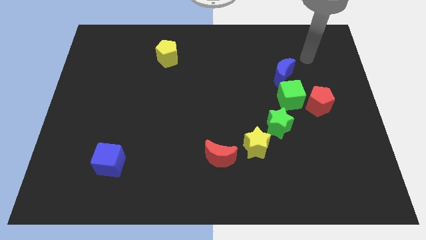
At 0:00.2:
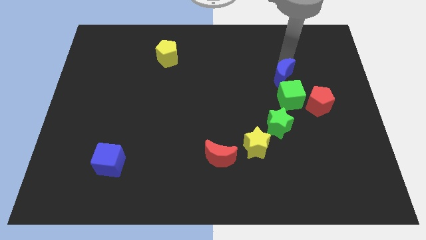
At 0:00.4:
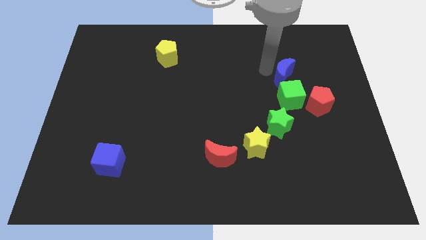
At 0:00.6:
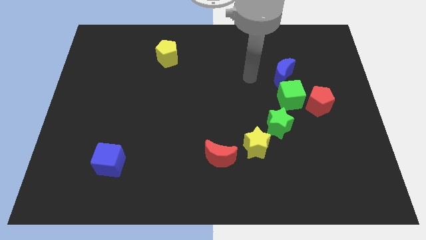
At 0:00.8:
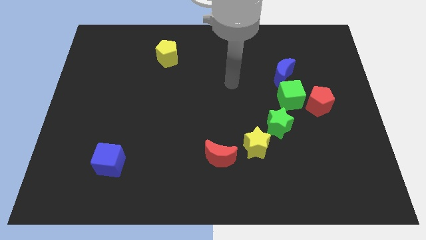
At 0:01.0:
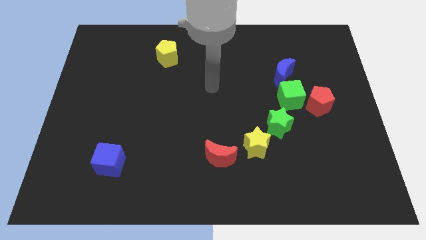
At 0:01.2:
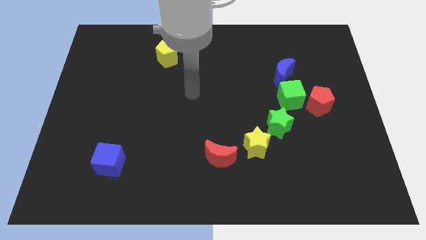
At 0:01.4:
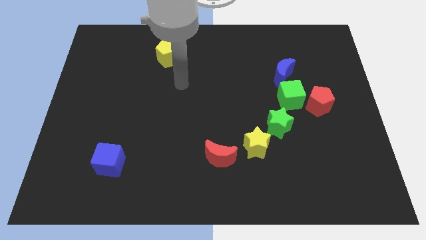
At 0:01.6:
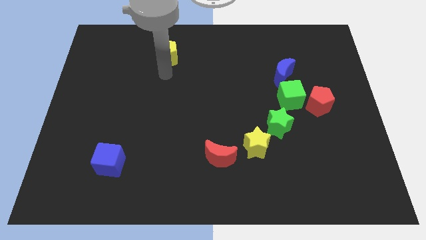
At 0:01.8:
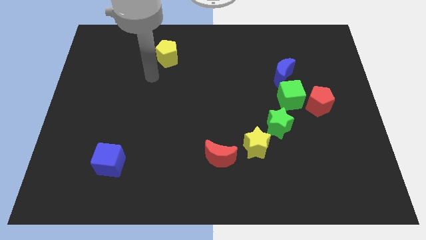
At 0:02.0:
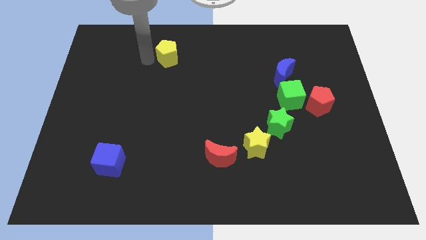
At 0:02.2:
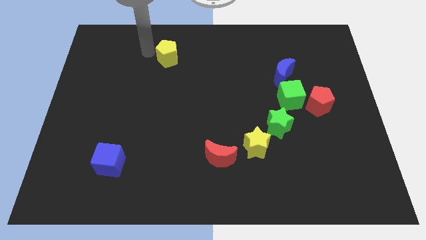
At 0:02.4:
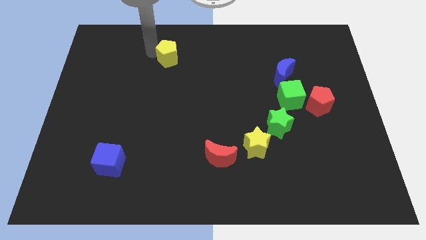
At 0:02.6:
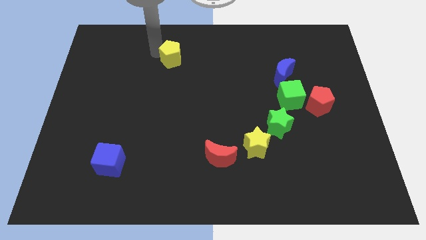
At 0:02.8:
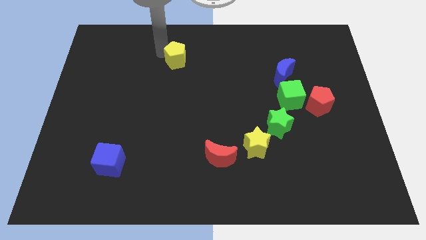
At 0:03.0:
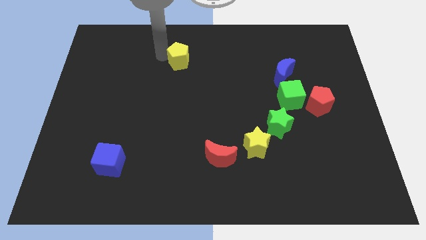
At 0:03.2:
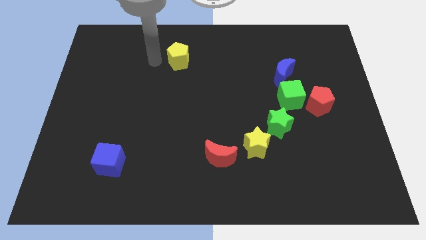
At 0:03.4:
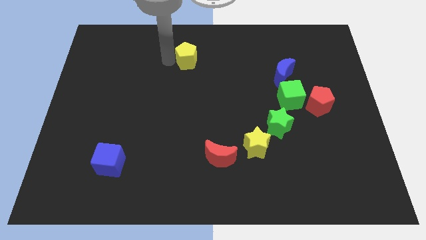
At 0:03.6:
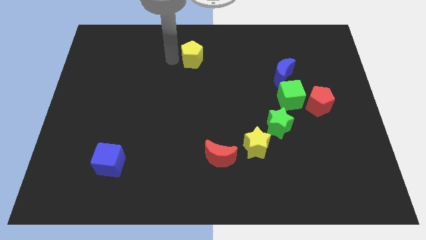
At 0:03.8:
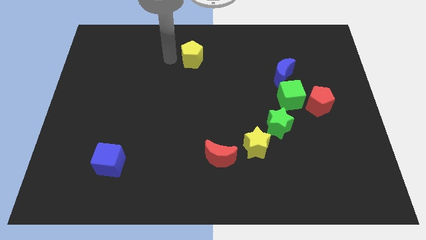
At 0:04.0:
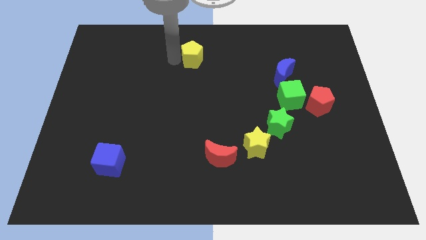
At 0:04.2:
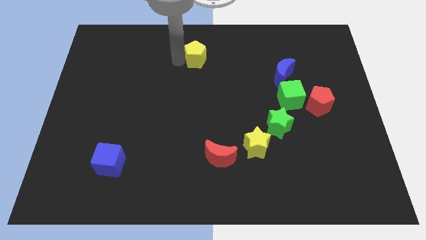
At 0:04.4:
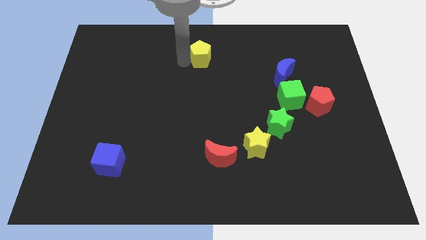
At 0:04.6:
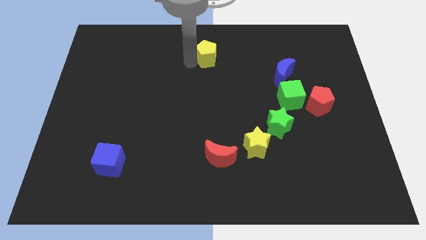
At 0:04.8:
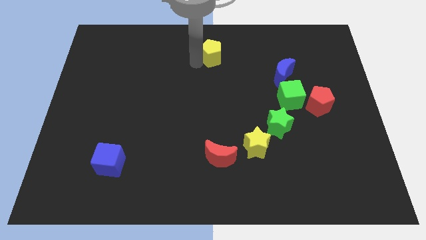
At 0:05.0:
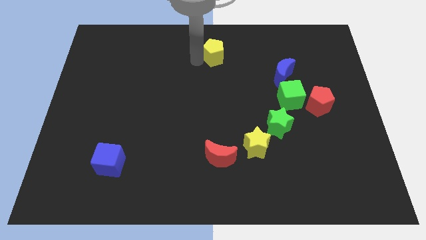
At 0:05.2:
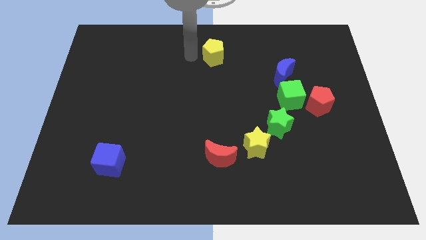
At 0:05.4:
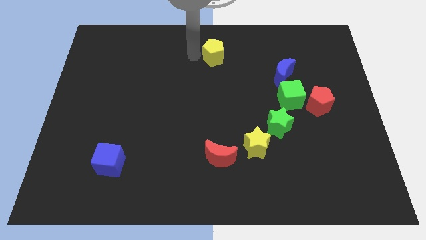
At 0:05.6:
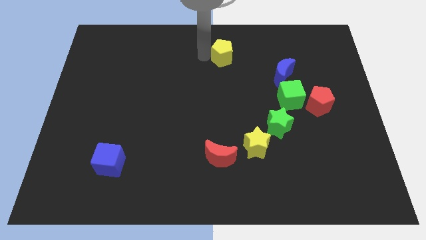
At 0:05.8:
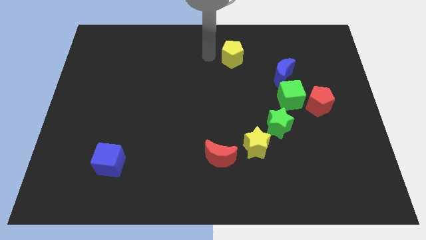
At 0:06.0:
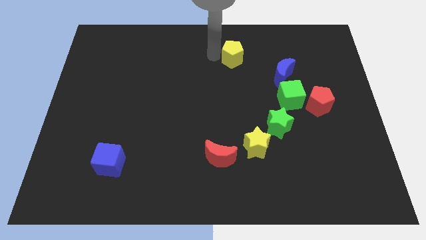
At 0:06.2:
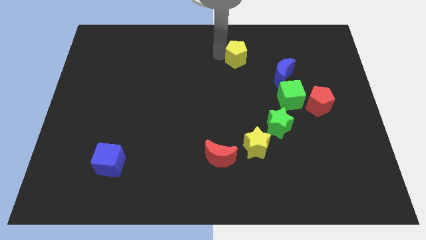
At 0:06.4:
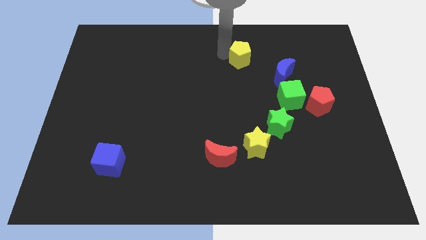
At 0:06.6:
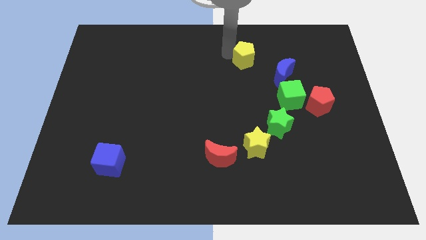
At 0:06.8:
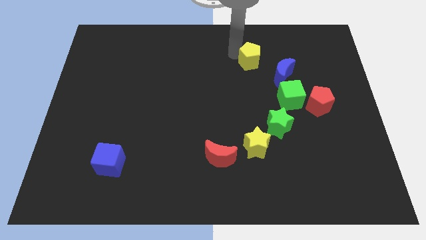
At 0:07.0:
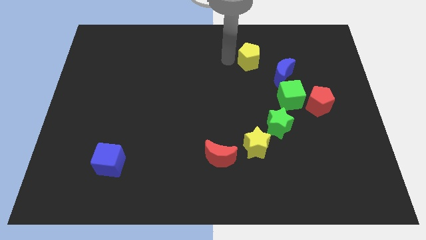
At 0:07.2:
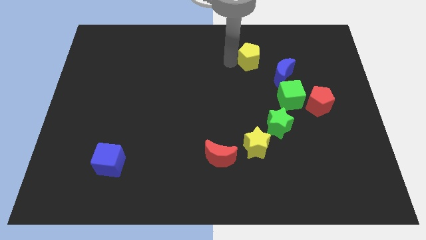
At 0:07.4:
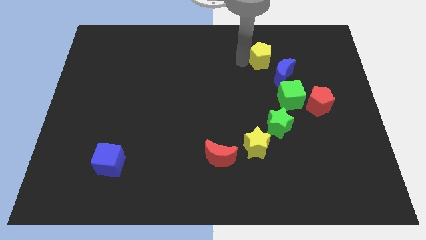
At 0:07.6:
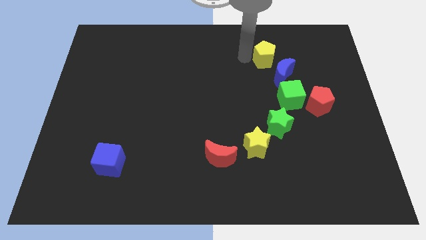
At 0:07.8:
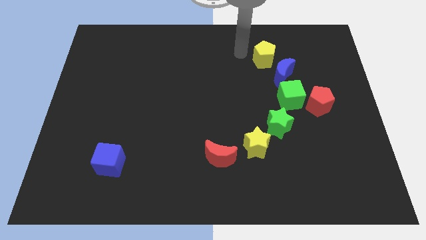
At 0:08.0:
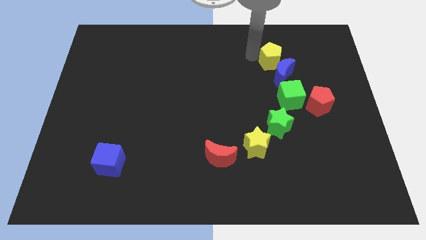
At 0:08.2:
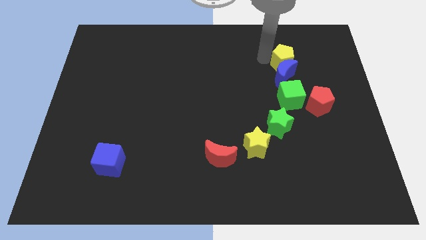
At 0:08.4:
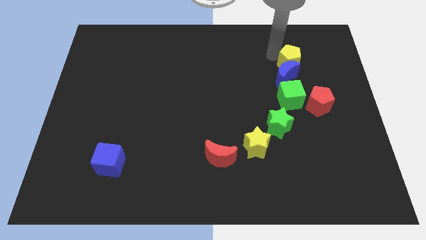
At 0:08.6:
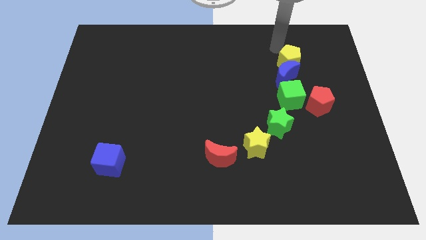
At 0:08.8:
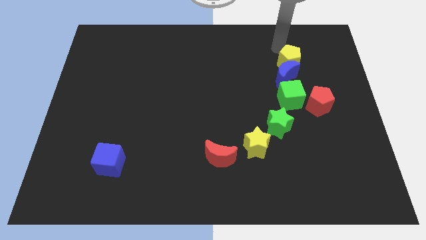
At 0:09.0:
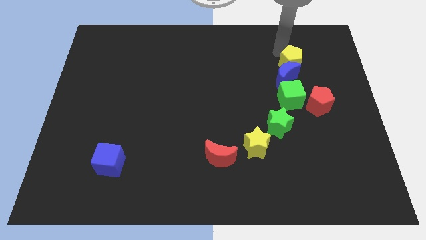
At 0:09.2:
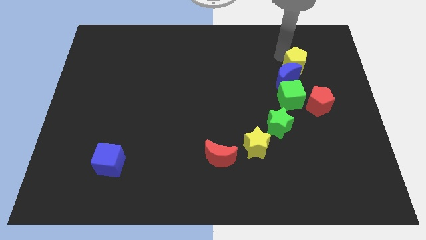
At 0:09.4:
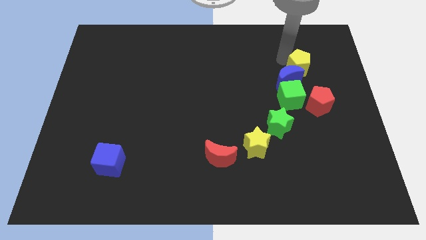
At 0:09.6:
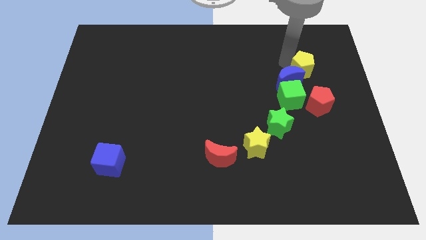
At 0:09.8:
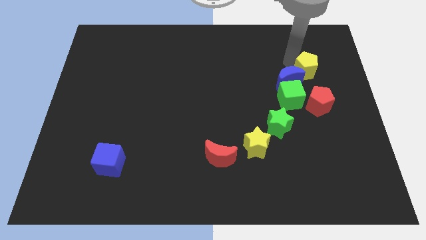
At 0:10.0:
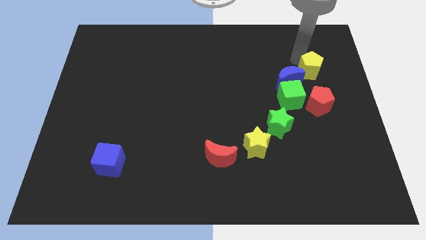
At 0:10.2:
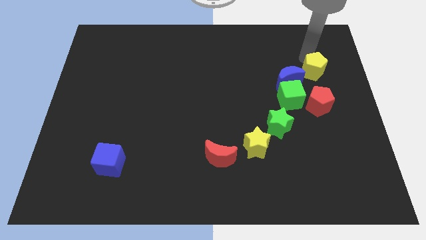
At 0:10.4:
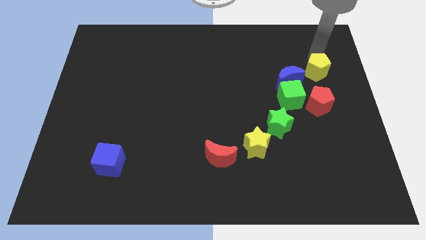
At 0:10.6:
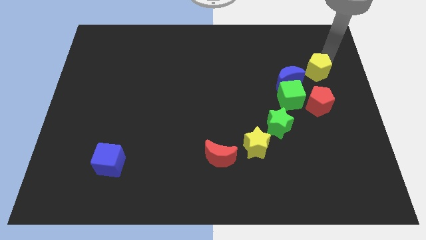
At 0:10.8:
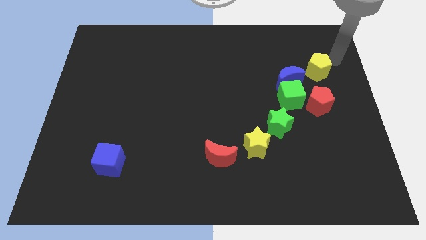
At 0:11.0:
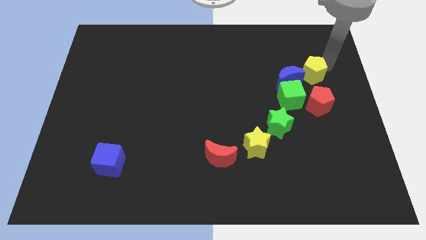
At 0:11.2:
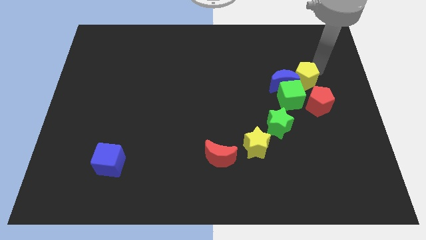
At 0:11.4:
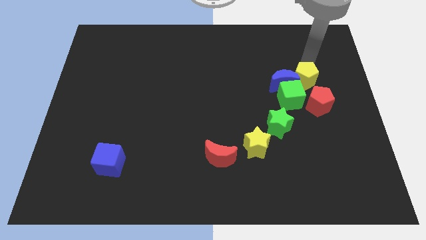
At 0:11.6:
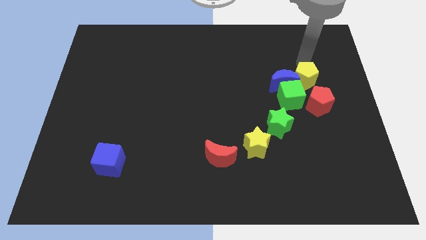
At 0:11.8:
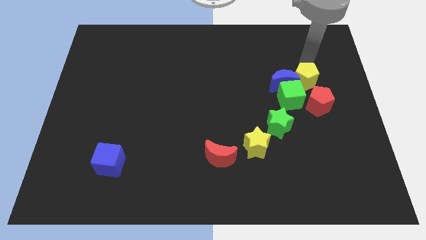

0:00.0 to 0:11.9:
slide the yellow pentagon diagonally down and to the right of the blue moon

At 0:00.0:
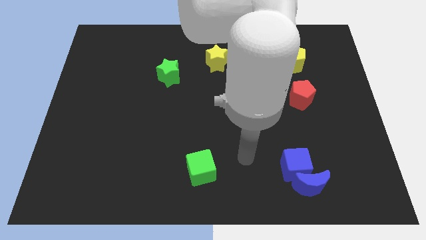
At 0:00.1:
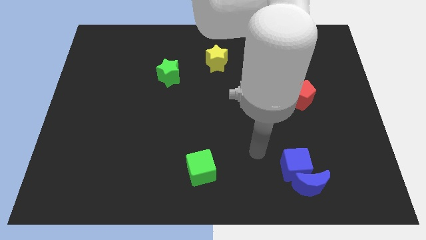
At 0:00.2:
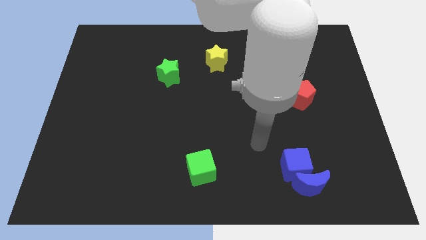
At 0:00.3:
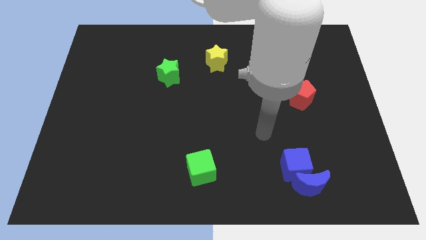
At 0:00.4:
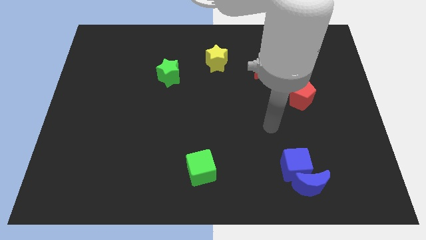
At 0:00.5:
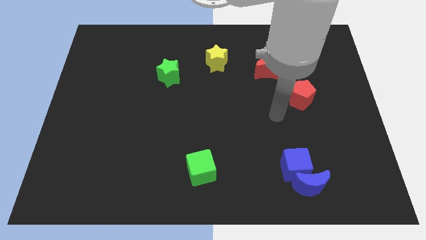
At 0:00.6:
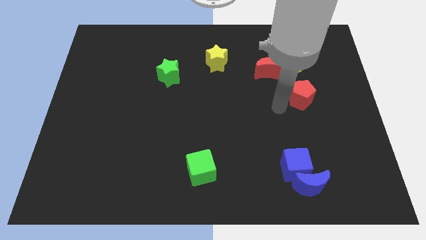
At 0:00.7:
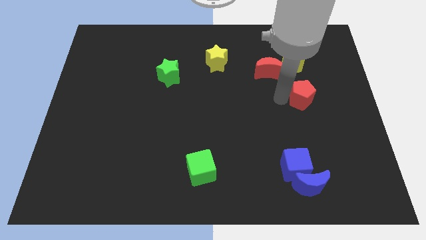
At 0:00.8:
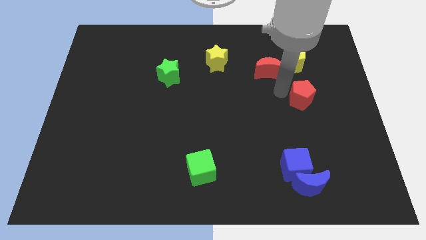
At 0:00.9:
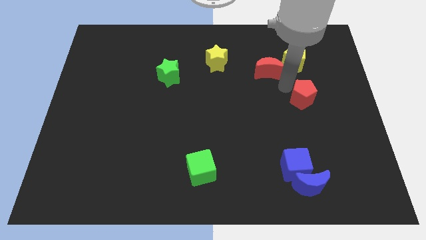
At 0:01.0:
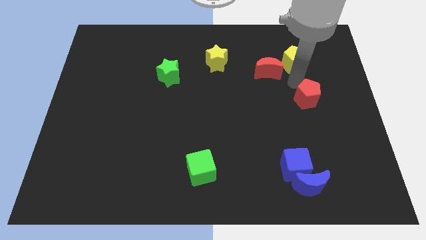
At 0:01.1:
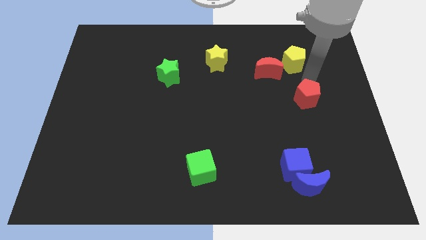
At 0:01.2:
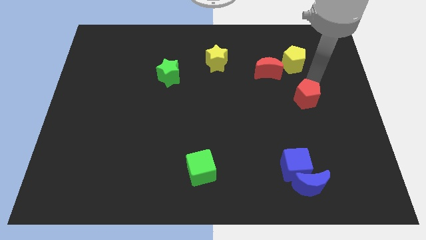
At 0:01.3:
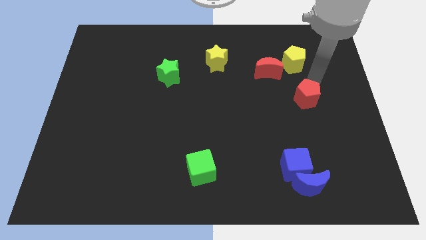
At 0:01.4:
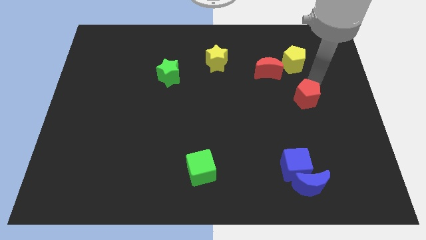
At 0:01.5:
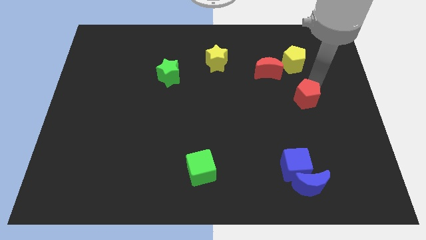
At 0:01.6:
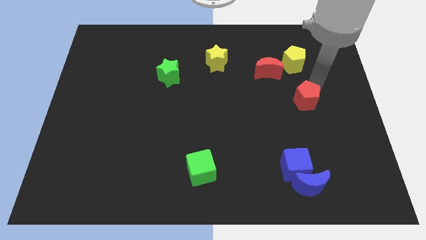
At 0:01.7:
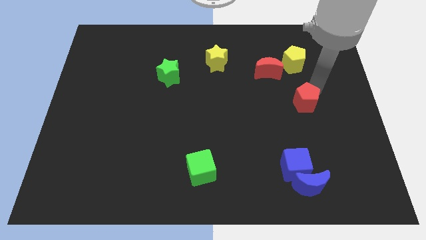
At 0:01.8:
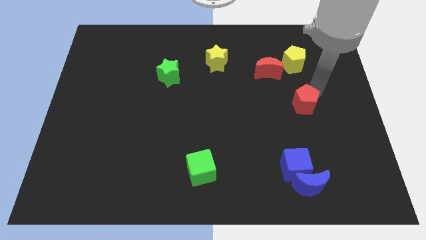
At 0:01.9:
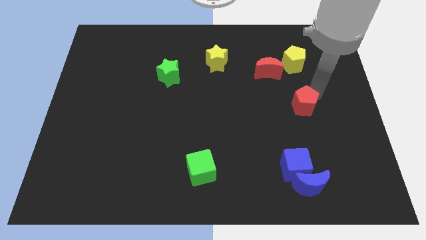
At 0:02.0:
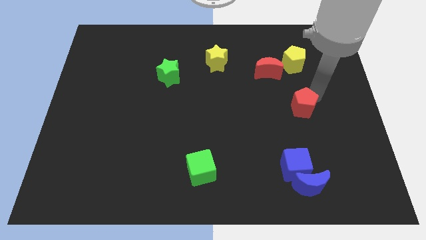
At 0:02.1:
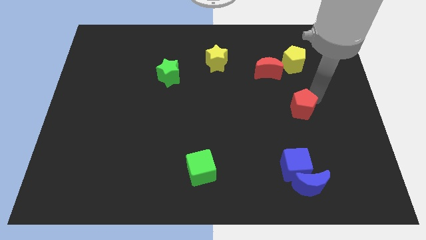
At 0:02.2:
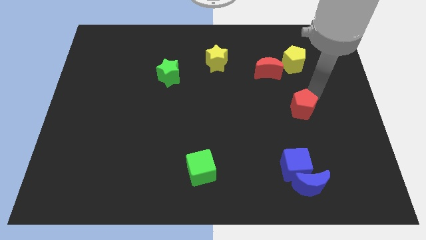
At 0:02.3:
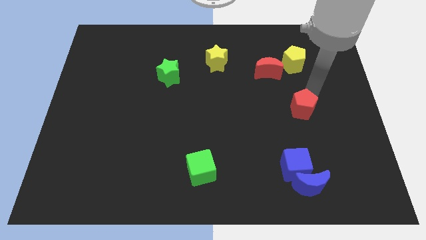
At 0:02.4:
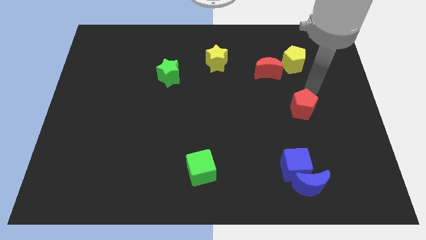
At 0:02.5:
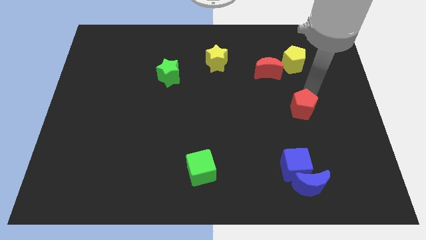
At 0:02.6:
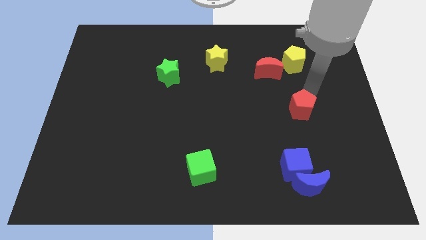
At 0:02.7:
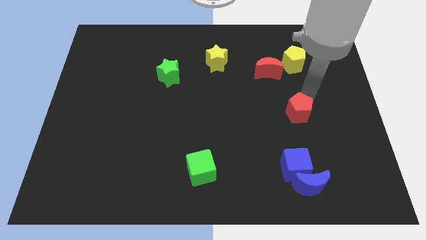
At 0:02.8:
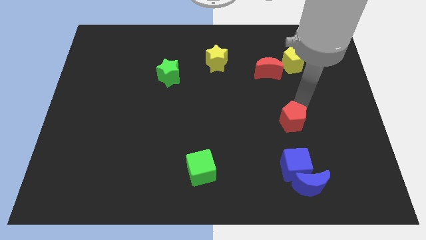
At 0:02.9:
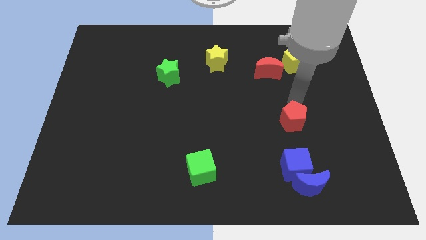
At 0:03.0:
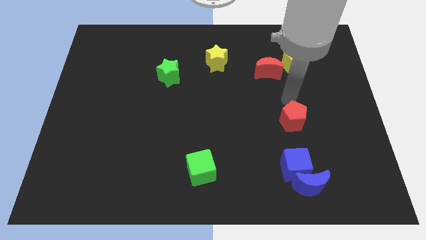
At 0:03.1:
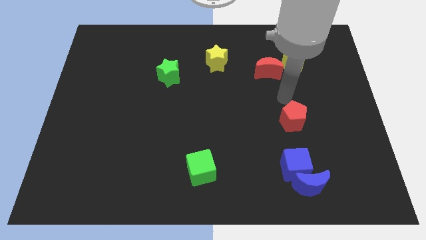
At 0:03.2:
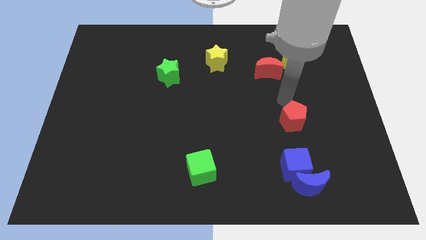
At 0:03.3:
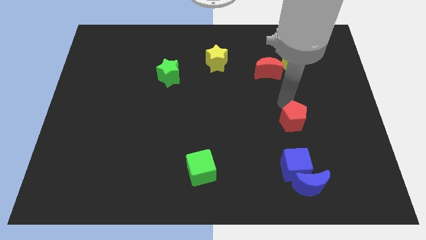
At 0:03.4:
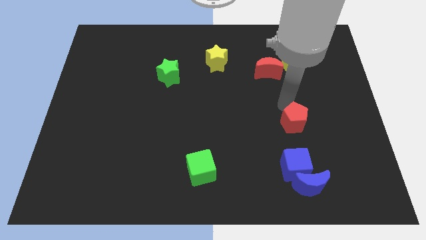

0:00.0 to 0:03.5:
push the red pentagon to the top side of the blue moon
